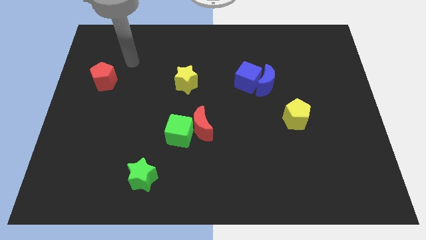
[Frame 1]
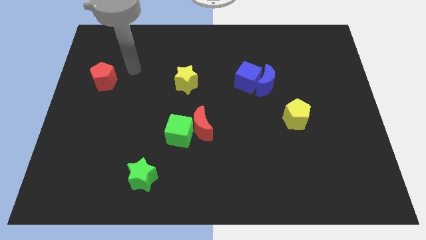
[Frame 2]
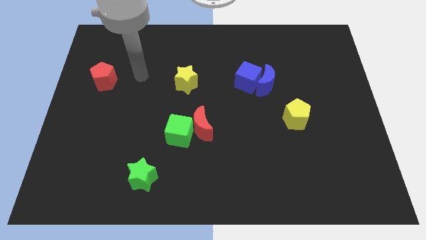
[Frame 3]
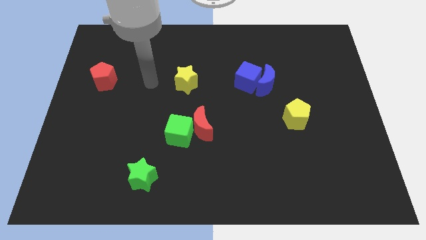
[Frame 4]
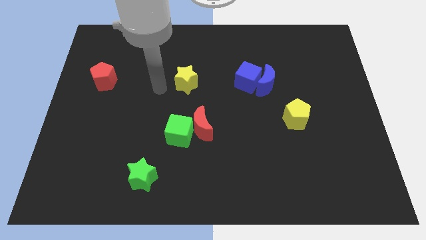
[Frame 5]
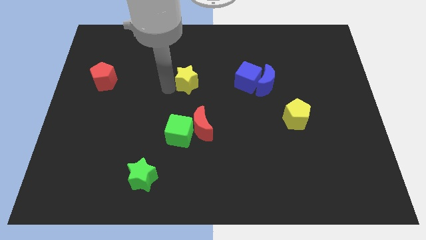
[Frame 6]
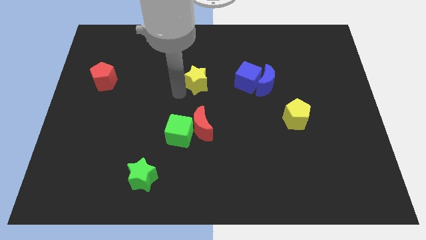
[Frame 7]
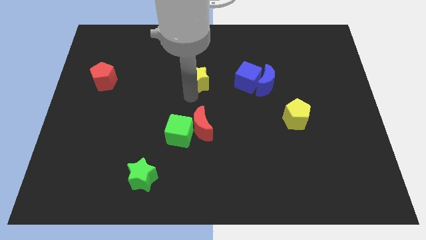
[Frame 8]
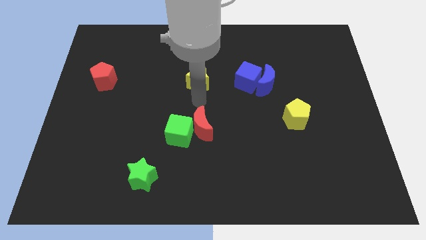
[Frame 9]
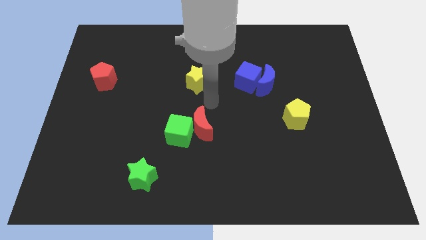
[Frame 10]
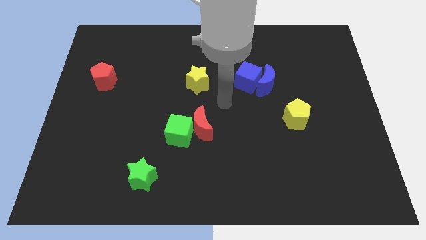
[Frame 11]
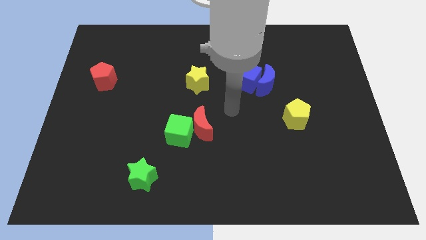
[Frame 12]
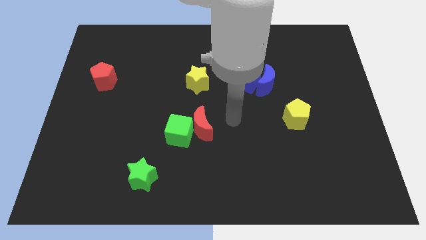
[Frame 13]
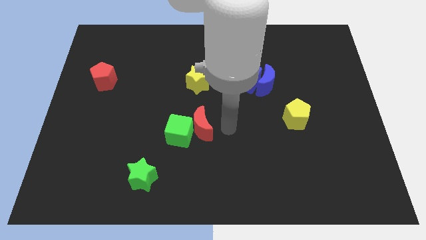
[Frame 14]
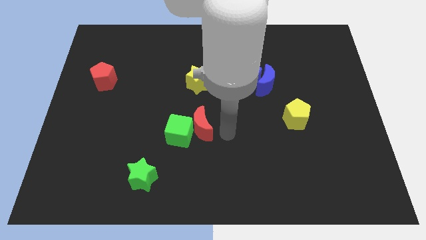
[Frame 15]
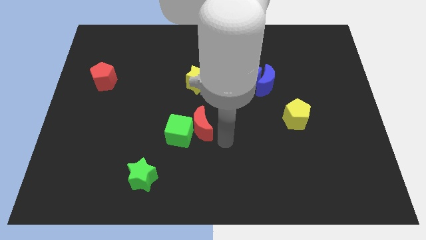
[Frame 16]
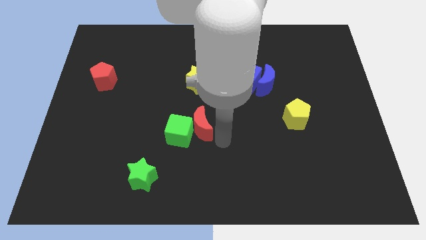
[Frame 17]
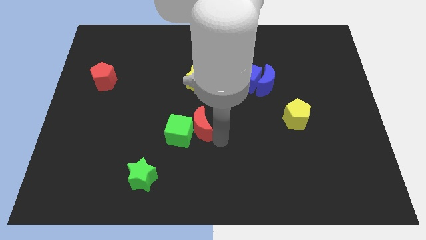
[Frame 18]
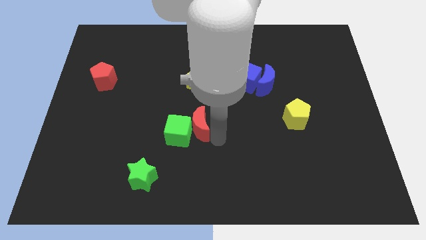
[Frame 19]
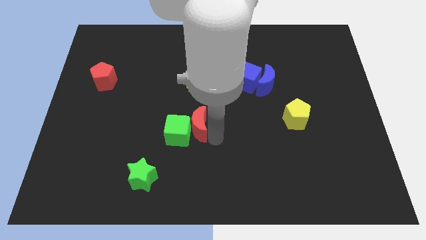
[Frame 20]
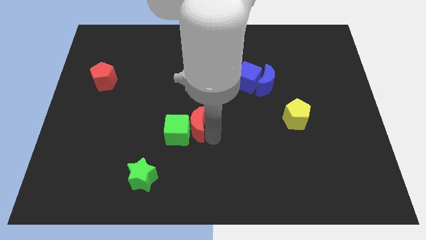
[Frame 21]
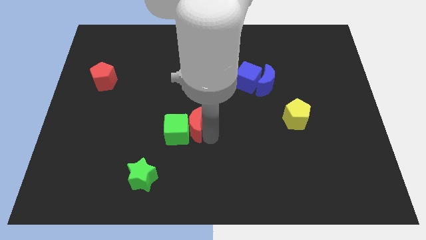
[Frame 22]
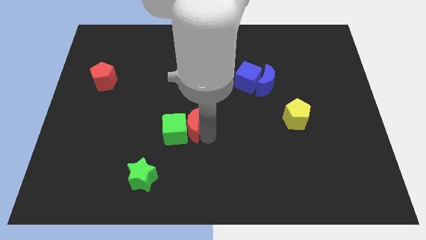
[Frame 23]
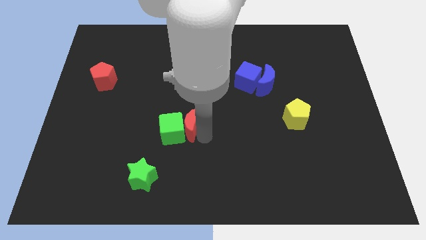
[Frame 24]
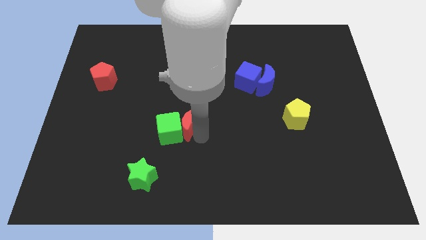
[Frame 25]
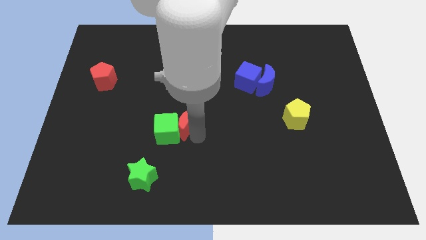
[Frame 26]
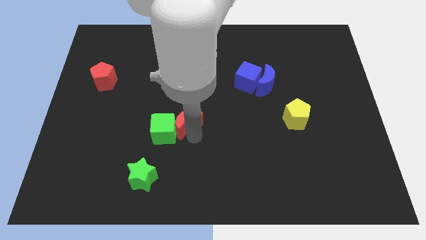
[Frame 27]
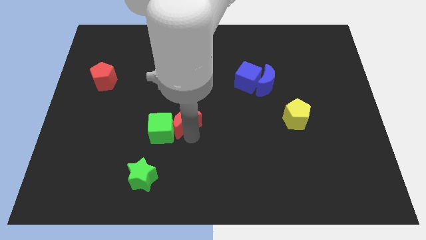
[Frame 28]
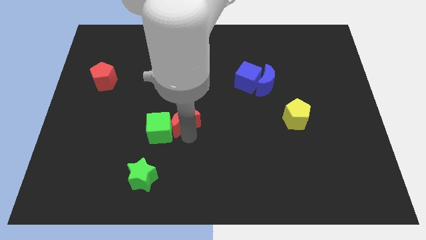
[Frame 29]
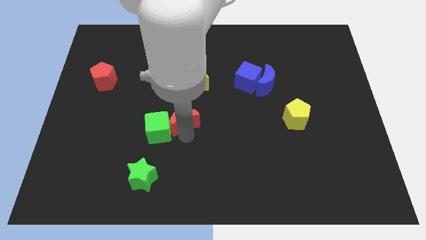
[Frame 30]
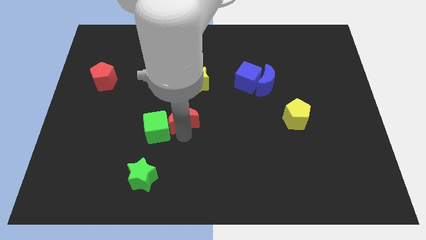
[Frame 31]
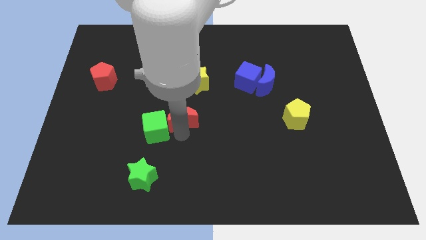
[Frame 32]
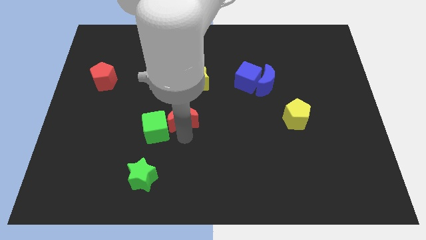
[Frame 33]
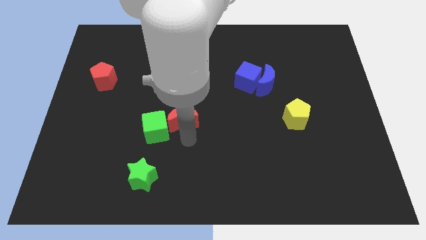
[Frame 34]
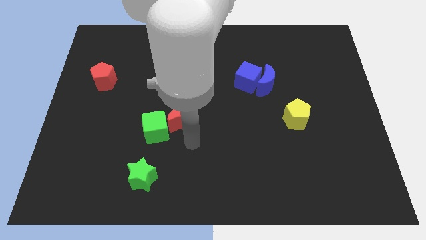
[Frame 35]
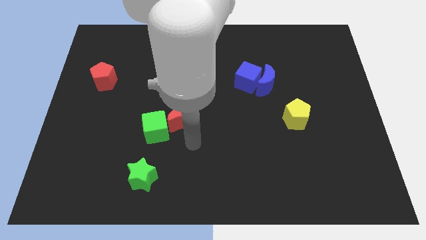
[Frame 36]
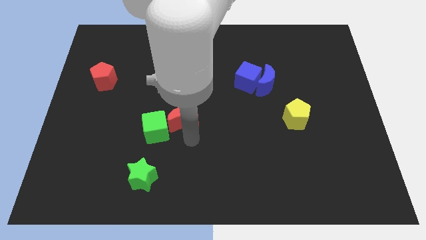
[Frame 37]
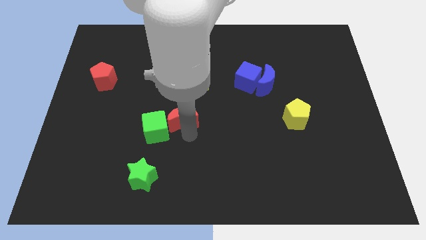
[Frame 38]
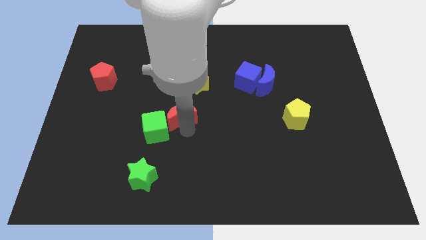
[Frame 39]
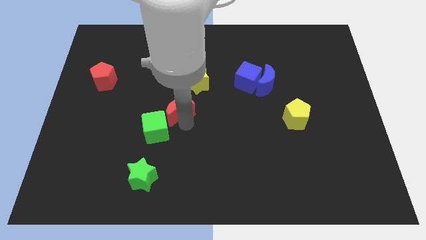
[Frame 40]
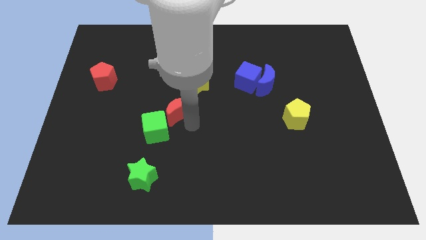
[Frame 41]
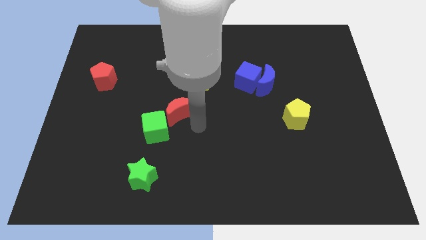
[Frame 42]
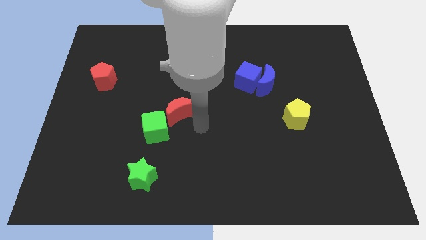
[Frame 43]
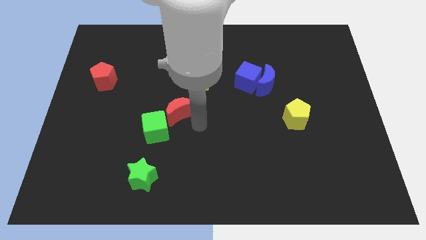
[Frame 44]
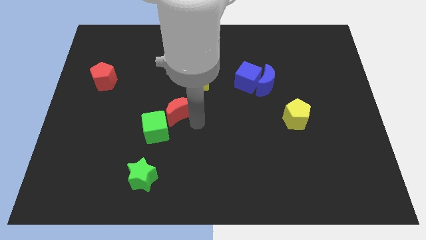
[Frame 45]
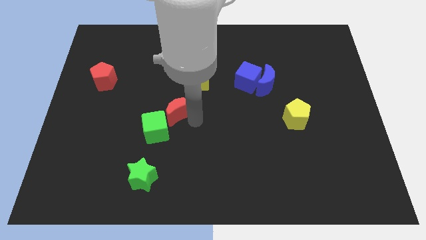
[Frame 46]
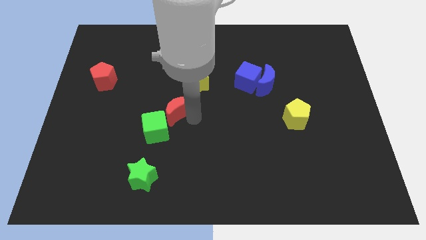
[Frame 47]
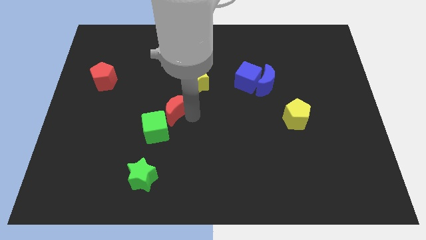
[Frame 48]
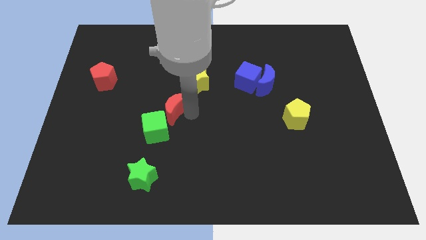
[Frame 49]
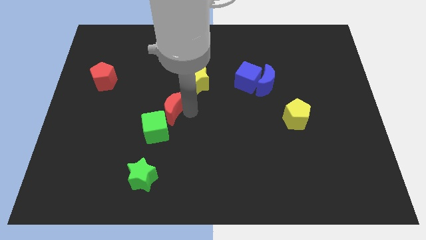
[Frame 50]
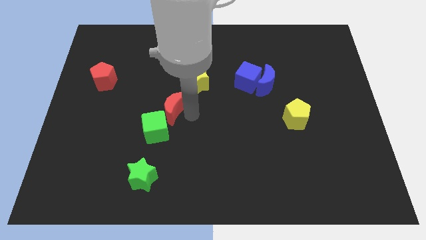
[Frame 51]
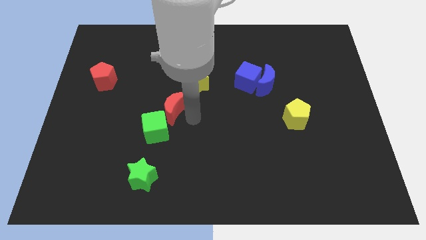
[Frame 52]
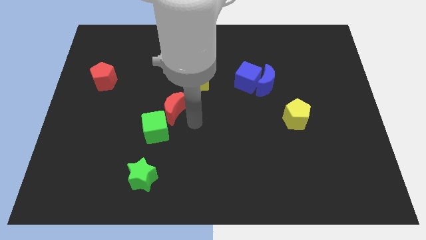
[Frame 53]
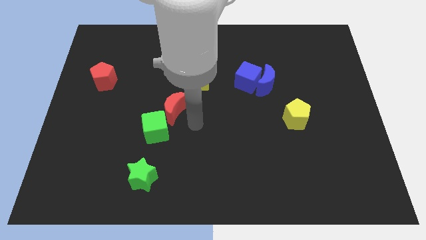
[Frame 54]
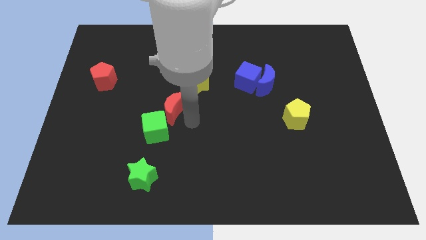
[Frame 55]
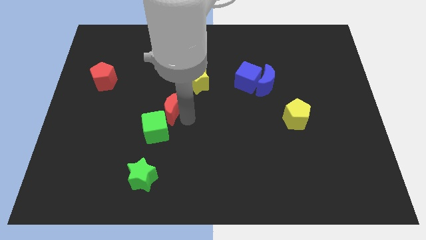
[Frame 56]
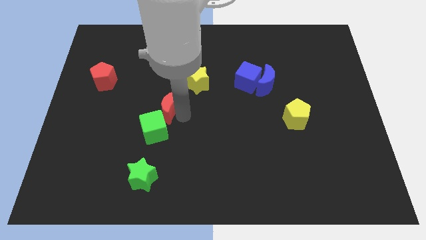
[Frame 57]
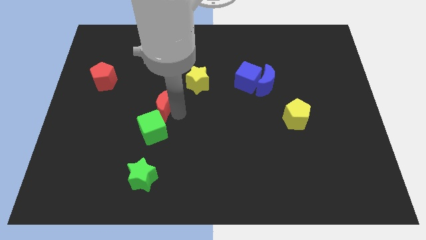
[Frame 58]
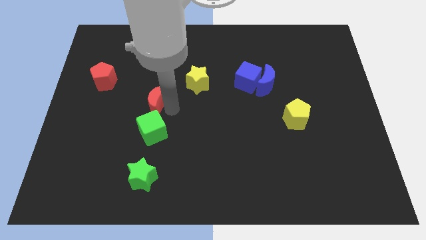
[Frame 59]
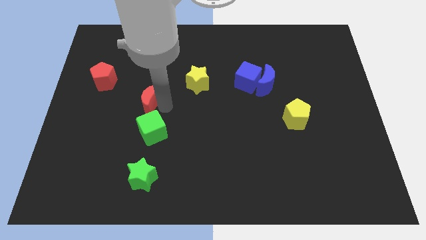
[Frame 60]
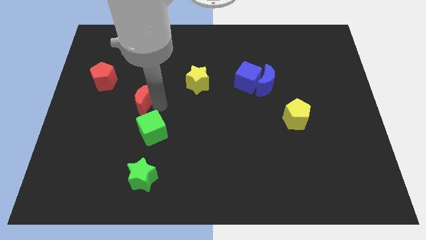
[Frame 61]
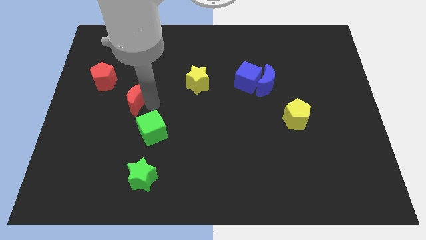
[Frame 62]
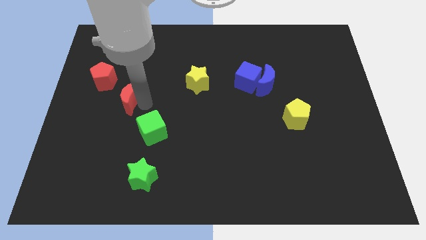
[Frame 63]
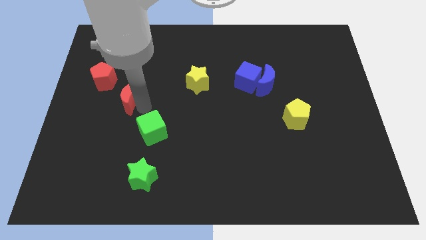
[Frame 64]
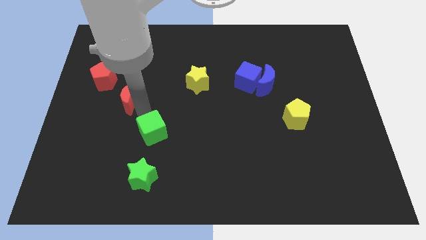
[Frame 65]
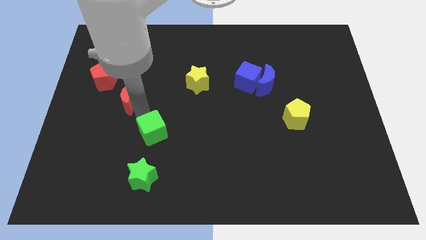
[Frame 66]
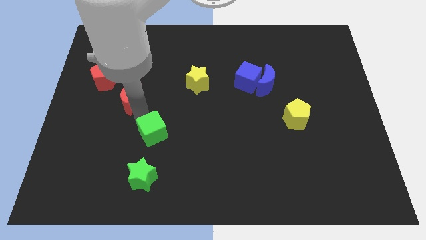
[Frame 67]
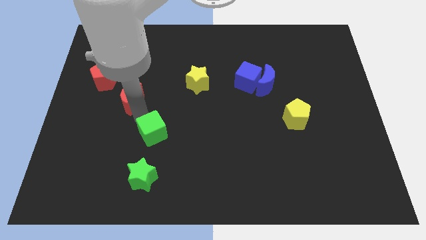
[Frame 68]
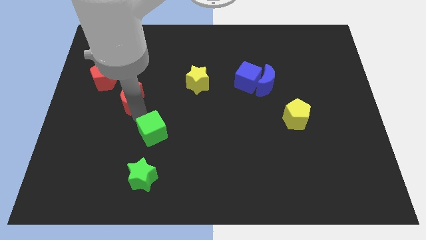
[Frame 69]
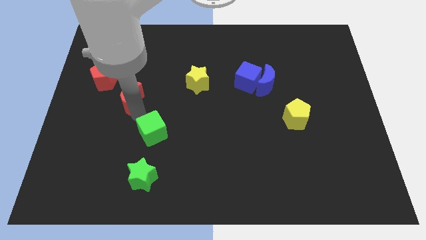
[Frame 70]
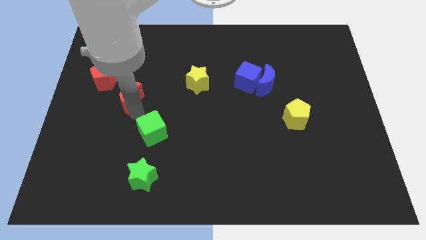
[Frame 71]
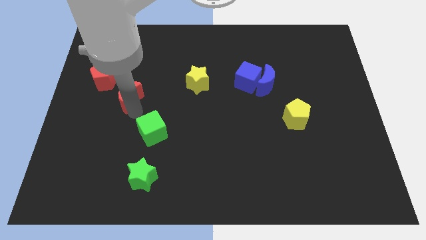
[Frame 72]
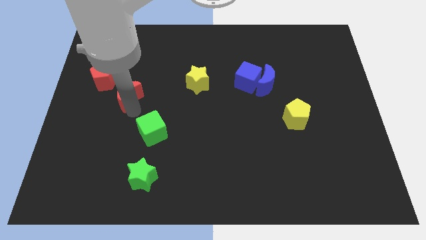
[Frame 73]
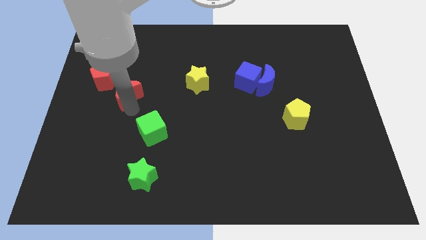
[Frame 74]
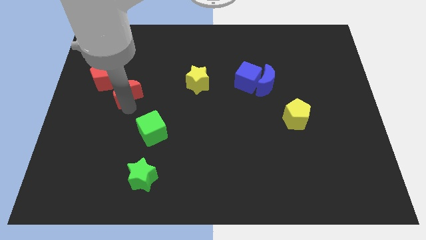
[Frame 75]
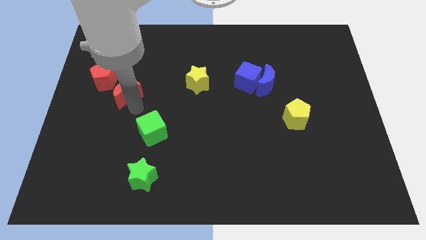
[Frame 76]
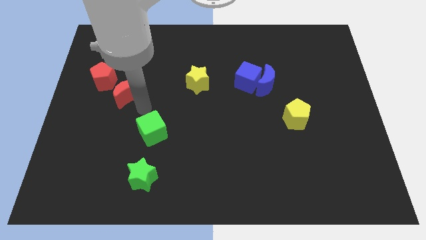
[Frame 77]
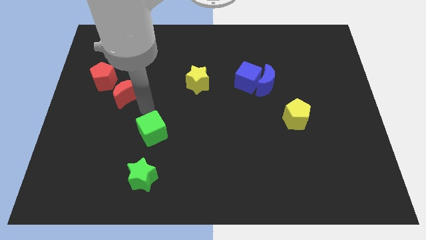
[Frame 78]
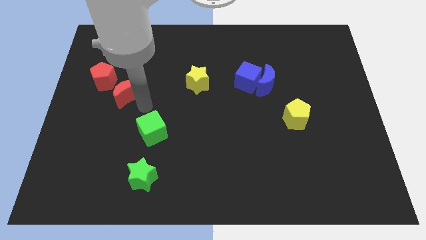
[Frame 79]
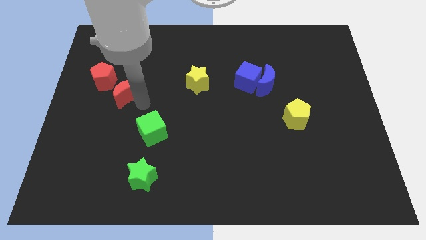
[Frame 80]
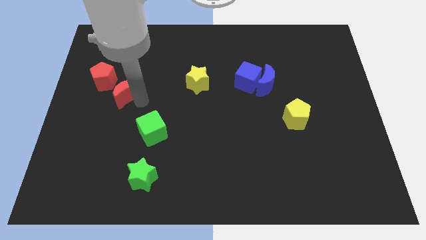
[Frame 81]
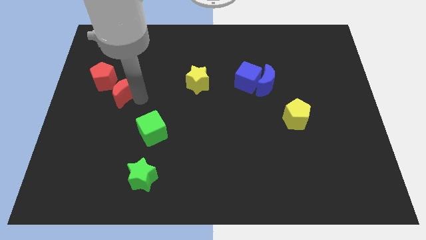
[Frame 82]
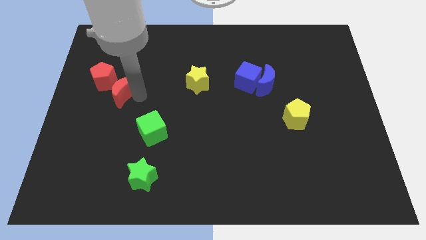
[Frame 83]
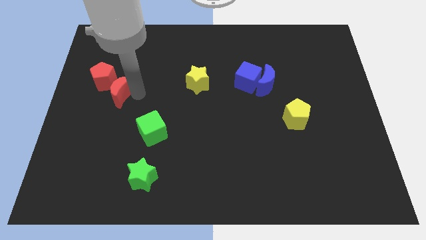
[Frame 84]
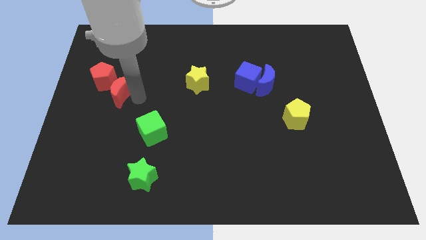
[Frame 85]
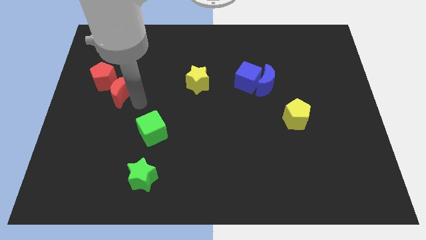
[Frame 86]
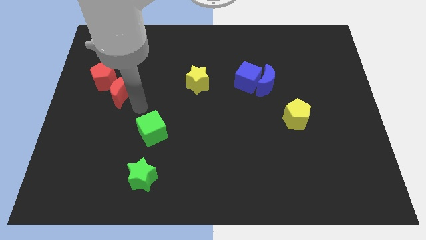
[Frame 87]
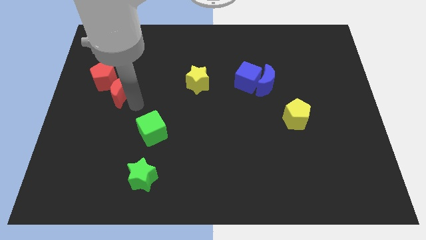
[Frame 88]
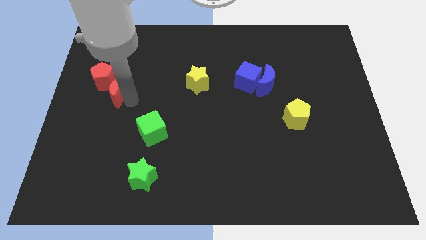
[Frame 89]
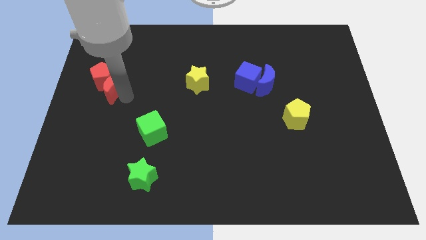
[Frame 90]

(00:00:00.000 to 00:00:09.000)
move the red moon to the red pentagon
